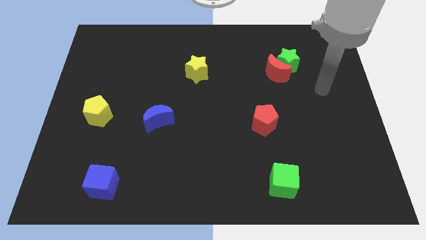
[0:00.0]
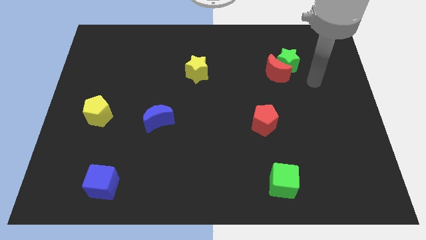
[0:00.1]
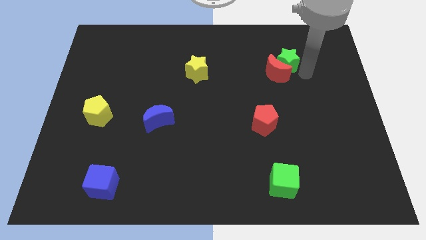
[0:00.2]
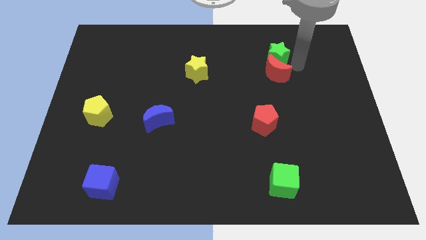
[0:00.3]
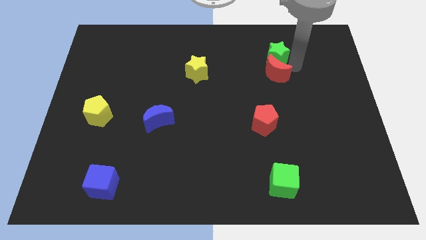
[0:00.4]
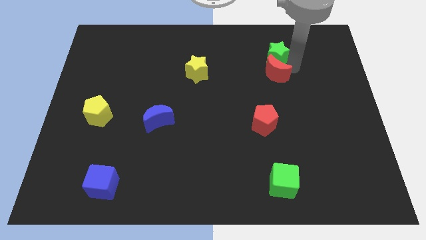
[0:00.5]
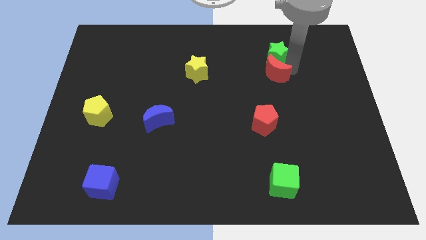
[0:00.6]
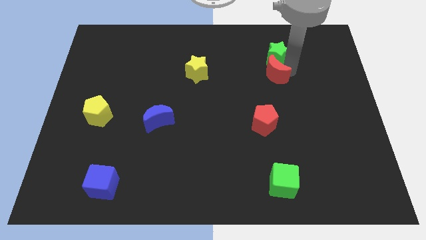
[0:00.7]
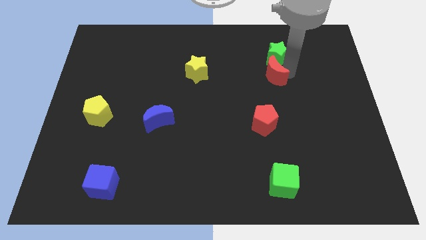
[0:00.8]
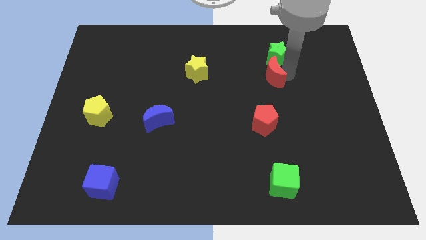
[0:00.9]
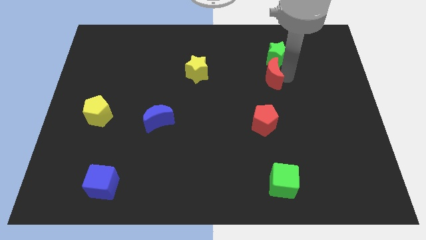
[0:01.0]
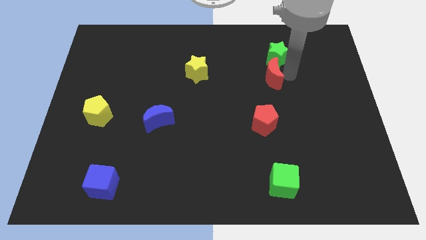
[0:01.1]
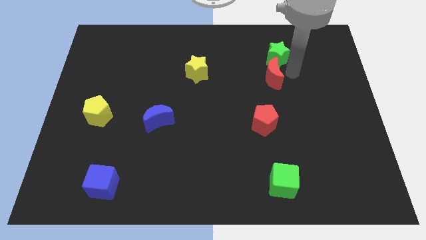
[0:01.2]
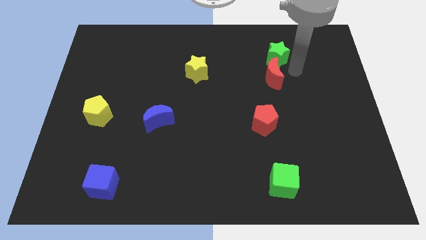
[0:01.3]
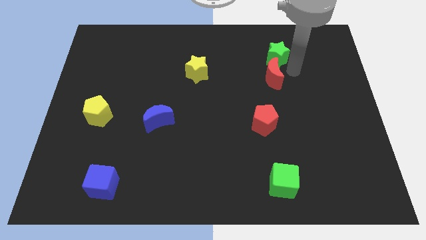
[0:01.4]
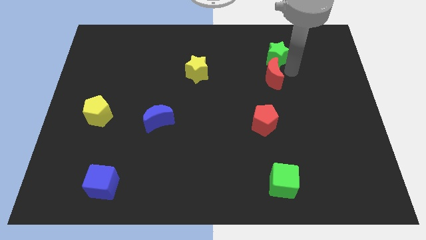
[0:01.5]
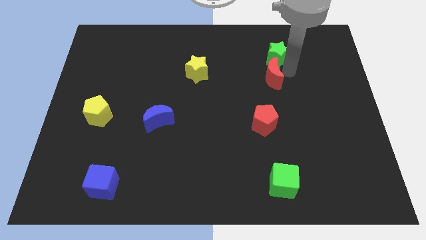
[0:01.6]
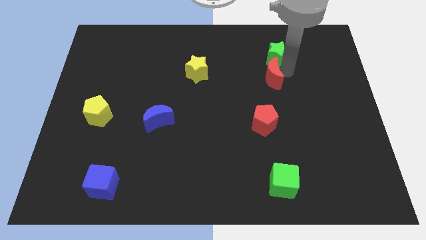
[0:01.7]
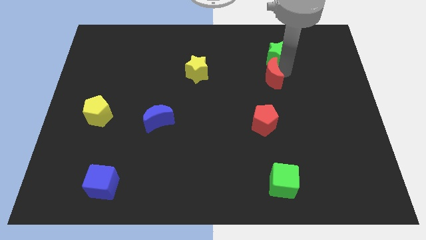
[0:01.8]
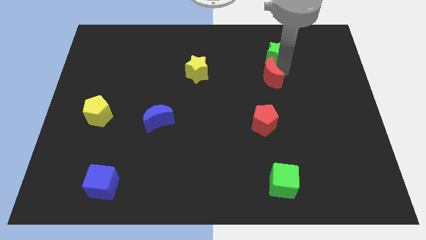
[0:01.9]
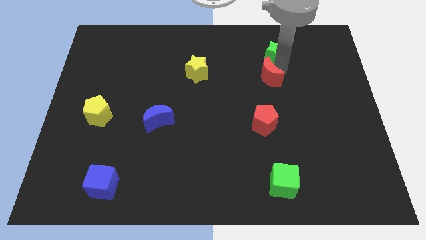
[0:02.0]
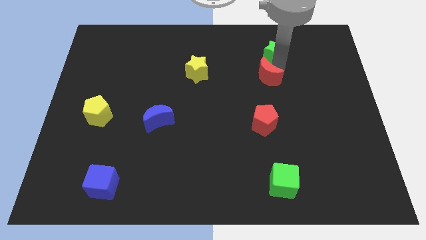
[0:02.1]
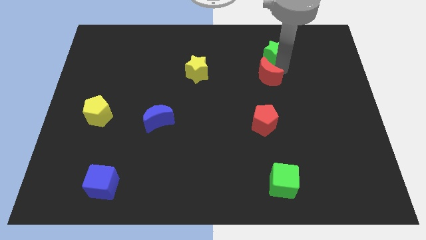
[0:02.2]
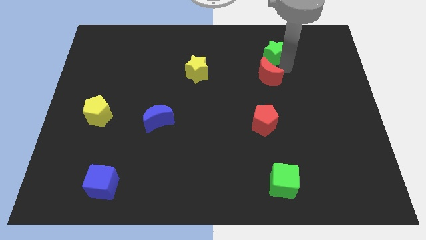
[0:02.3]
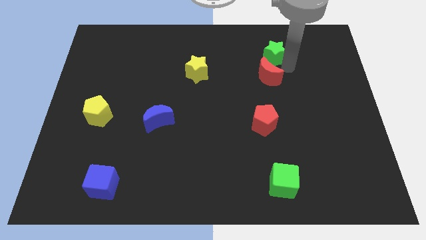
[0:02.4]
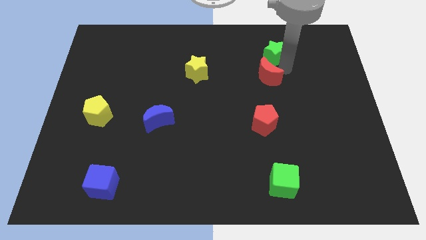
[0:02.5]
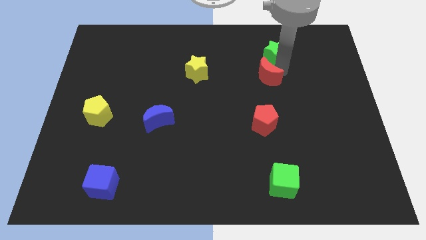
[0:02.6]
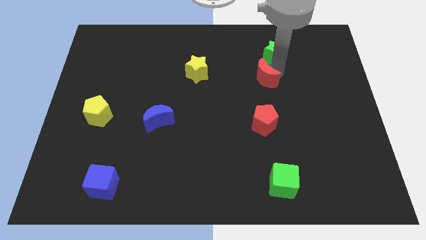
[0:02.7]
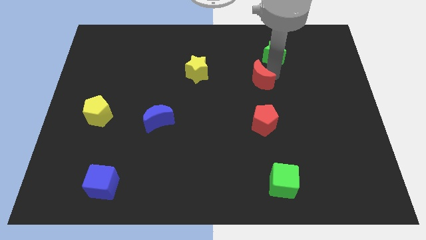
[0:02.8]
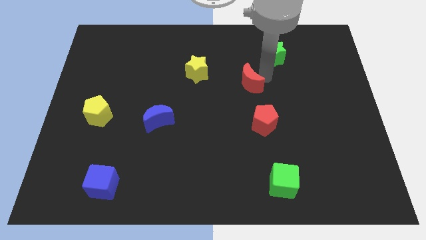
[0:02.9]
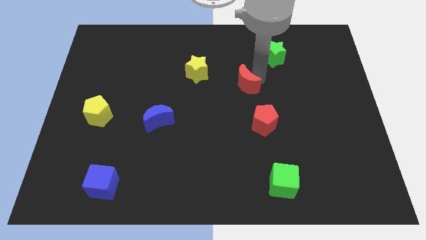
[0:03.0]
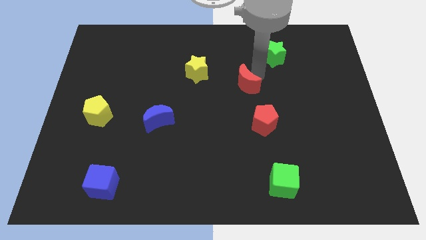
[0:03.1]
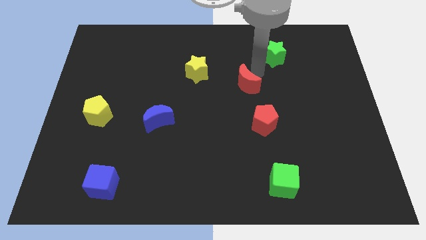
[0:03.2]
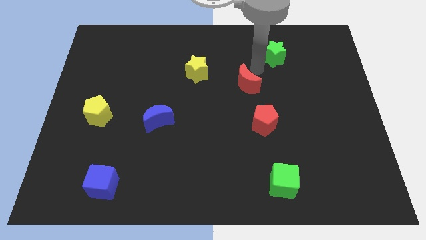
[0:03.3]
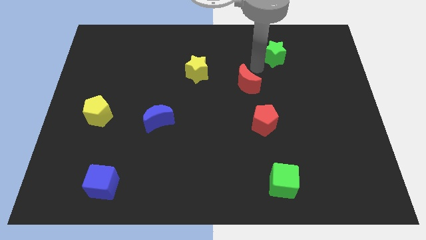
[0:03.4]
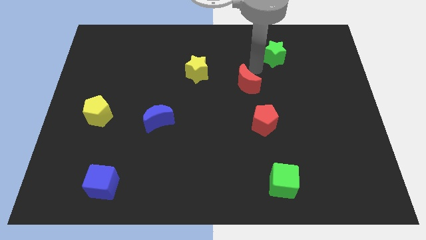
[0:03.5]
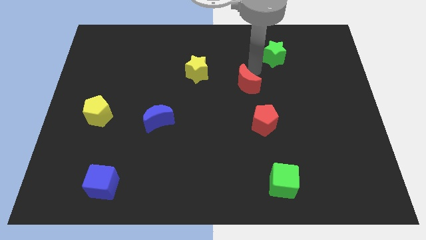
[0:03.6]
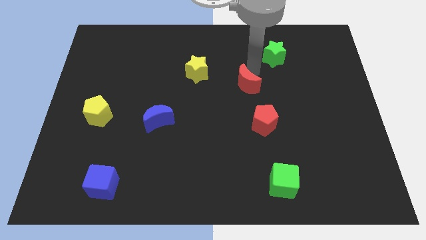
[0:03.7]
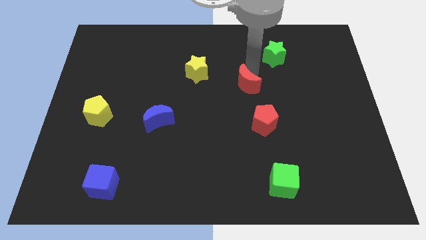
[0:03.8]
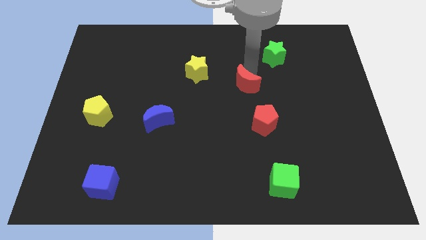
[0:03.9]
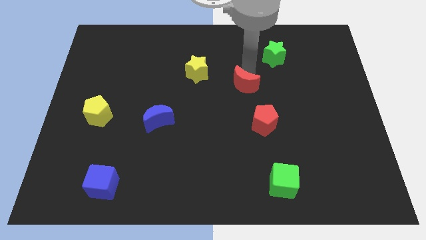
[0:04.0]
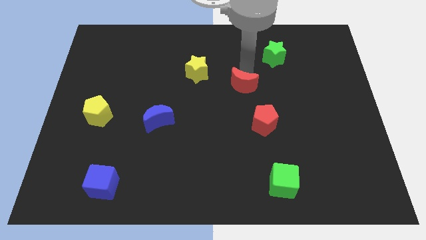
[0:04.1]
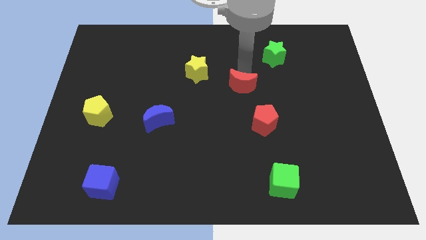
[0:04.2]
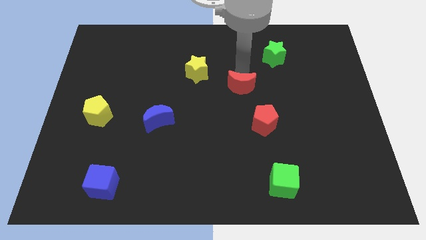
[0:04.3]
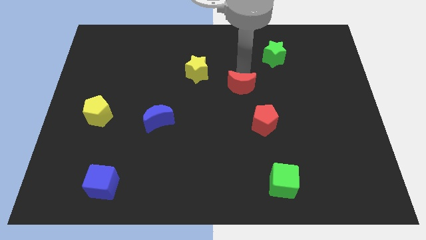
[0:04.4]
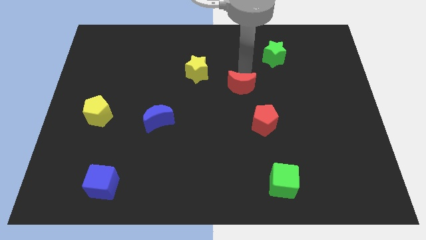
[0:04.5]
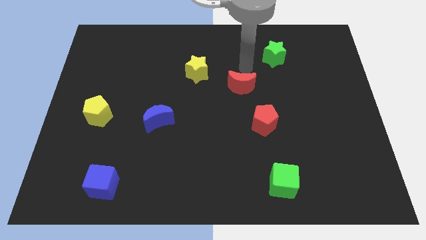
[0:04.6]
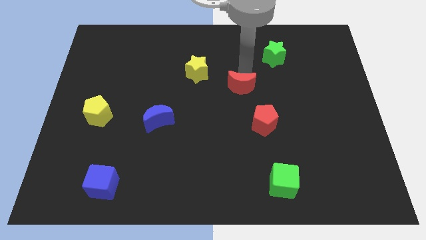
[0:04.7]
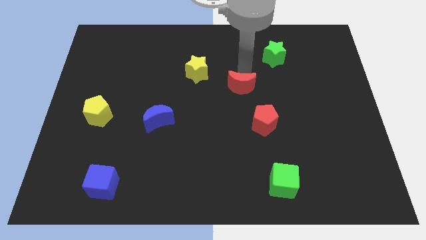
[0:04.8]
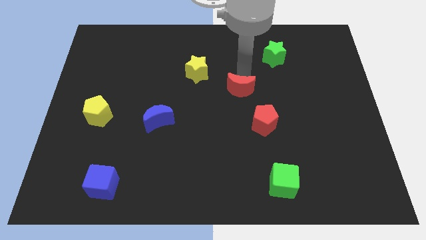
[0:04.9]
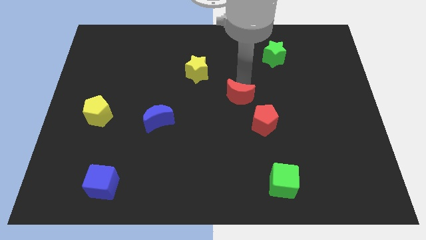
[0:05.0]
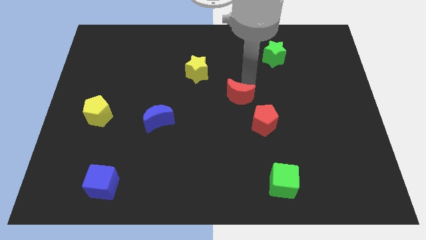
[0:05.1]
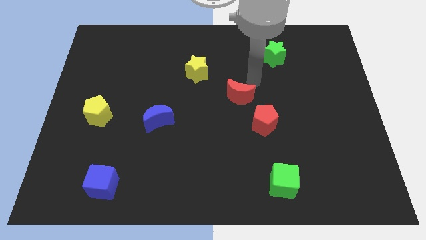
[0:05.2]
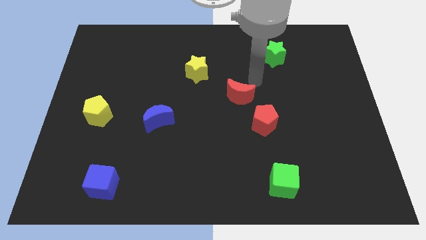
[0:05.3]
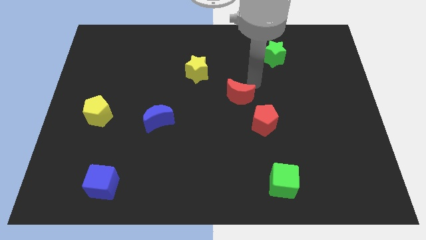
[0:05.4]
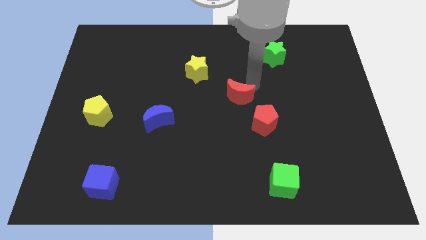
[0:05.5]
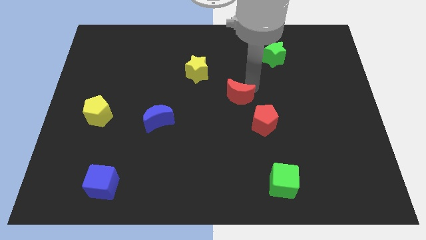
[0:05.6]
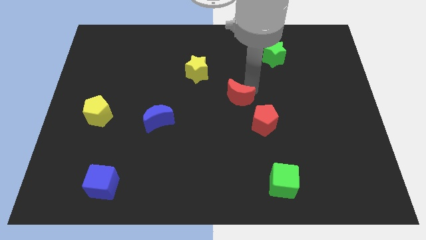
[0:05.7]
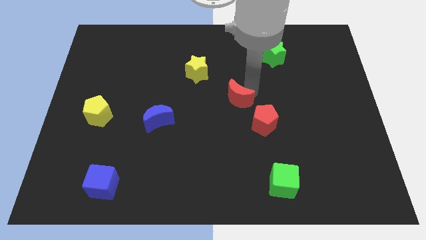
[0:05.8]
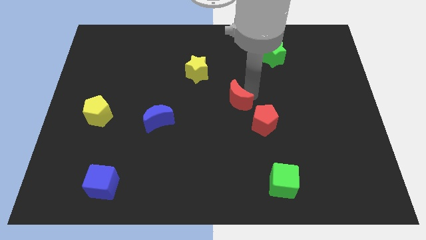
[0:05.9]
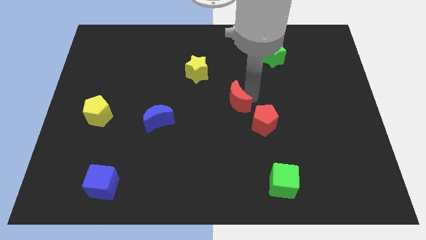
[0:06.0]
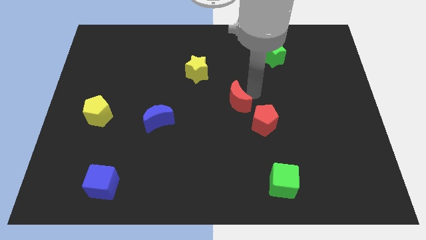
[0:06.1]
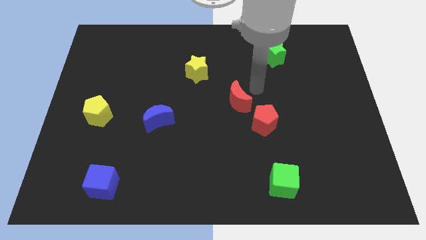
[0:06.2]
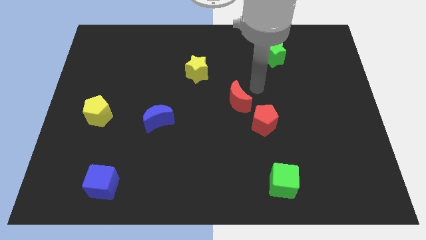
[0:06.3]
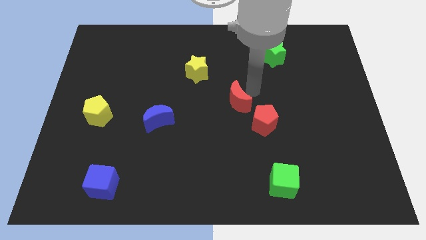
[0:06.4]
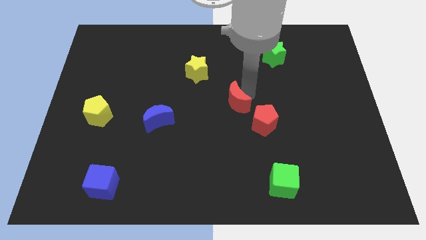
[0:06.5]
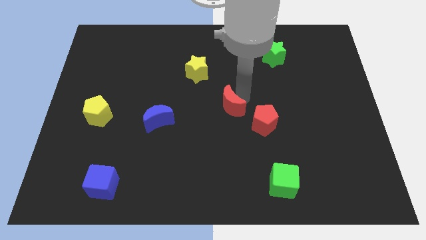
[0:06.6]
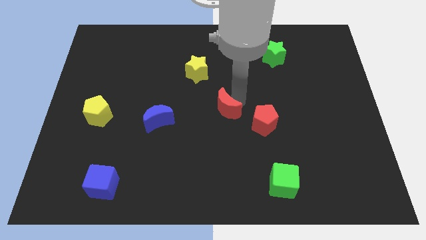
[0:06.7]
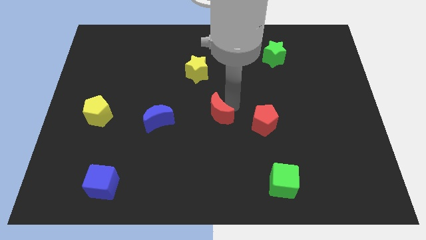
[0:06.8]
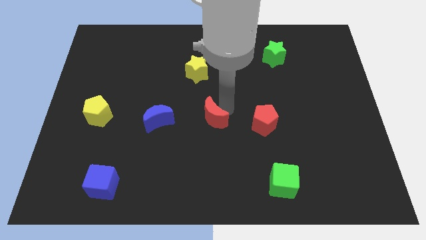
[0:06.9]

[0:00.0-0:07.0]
push the red moon downwards and then left

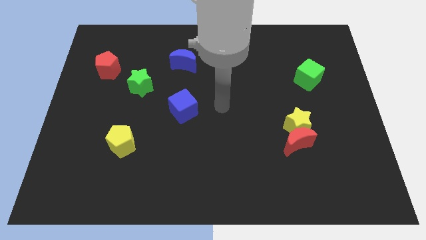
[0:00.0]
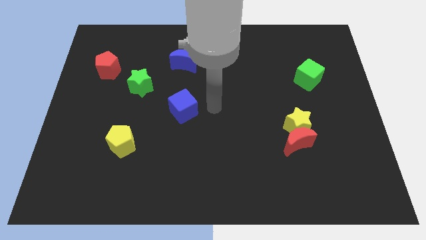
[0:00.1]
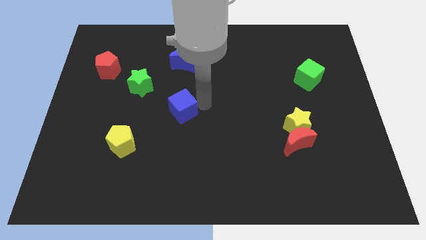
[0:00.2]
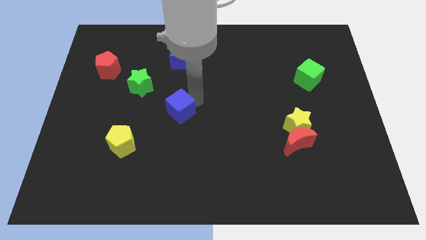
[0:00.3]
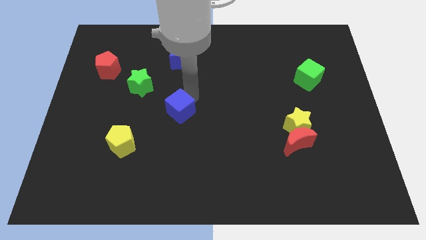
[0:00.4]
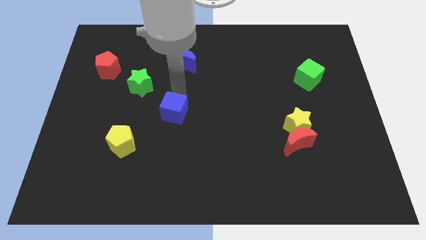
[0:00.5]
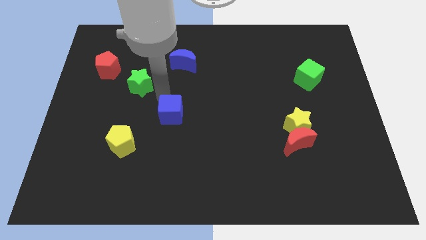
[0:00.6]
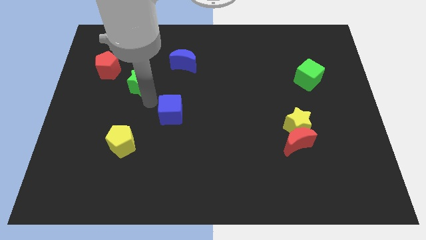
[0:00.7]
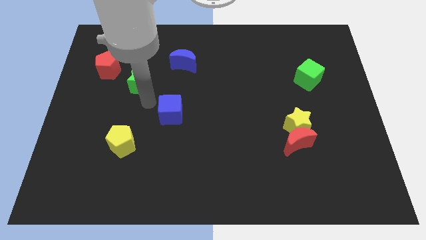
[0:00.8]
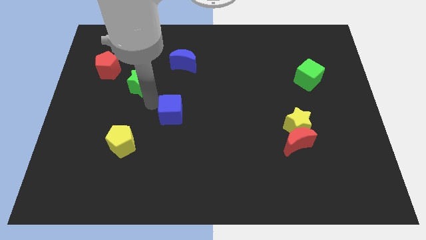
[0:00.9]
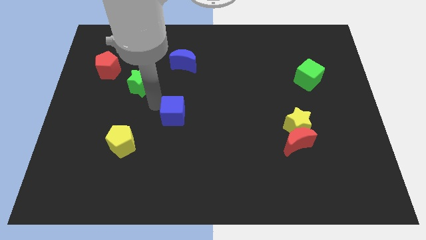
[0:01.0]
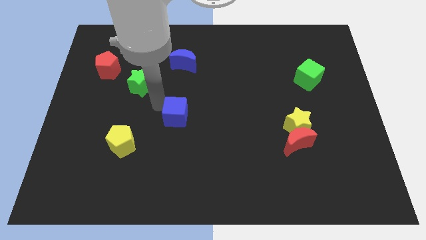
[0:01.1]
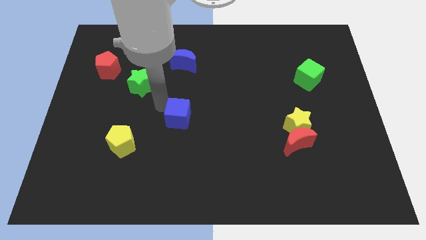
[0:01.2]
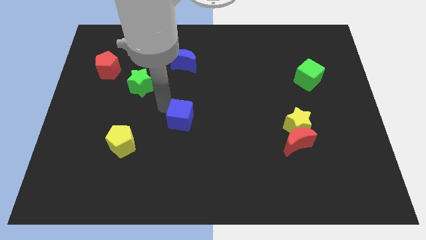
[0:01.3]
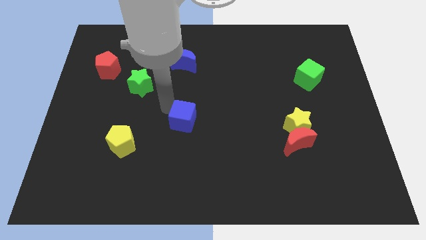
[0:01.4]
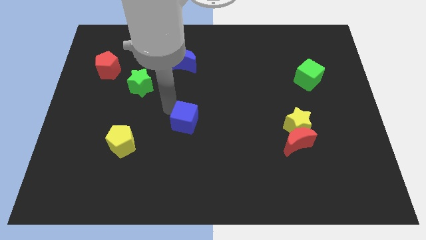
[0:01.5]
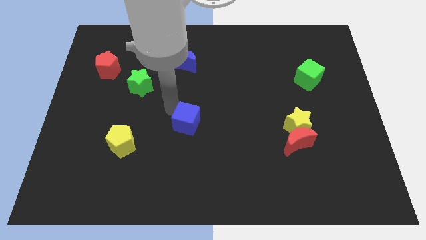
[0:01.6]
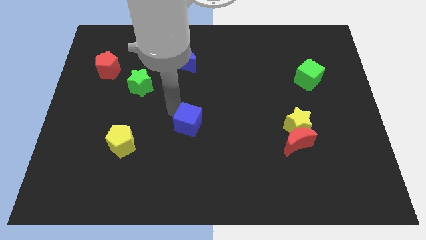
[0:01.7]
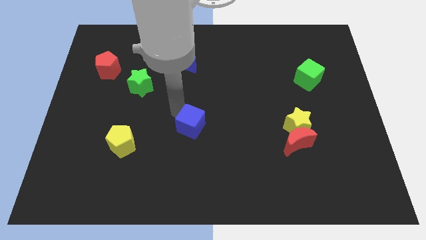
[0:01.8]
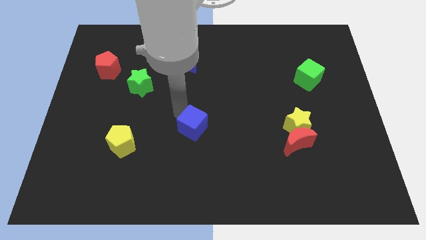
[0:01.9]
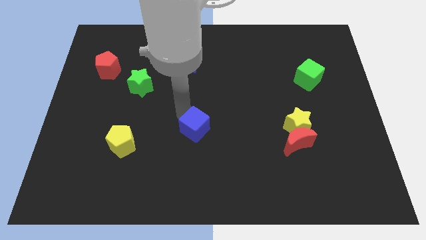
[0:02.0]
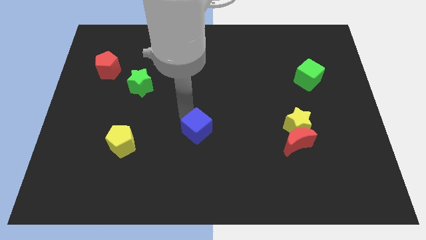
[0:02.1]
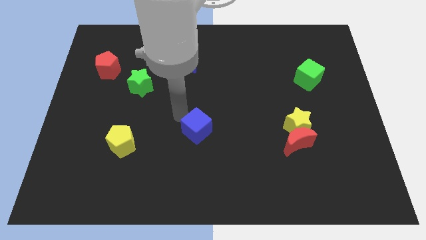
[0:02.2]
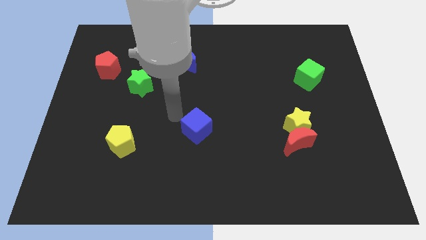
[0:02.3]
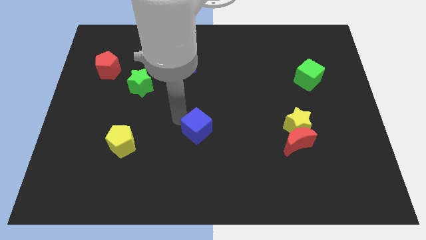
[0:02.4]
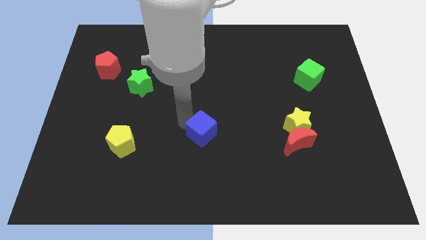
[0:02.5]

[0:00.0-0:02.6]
move the blue cube down and right a little
